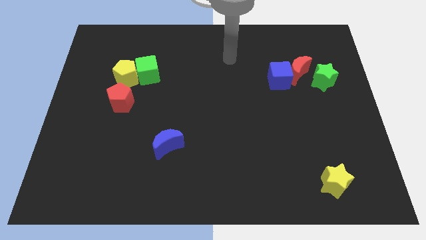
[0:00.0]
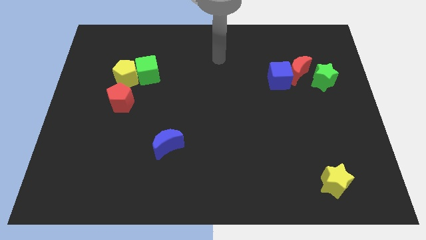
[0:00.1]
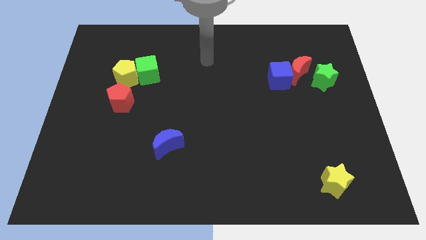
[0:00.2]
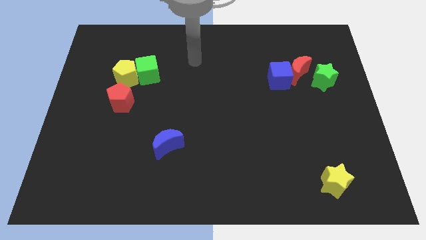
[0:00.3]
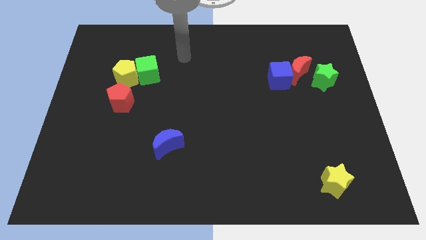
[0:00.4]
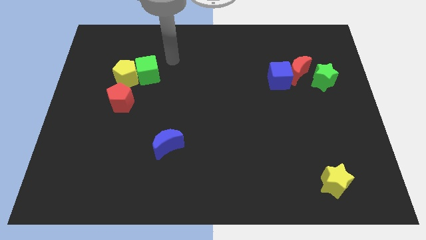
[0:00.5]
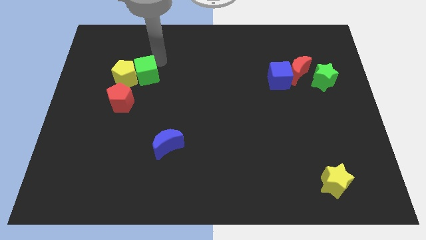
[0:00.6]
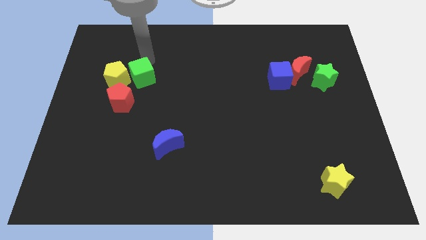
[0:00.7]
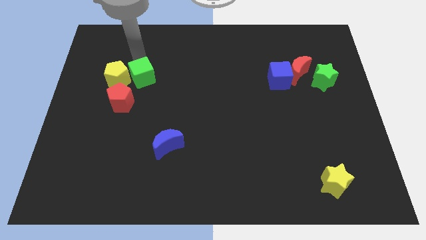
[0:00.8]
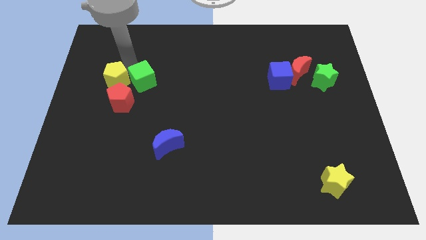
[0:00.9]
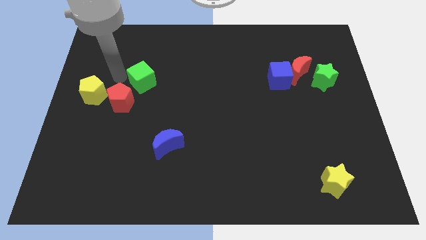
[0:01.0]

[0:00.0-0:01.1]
separate the green cube from the yellow pentagon
